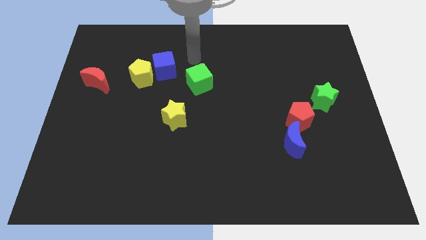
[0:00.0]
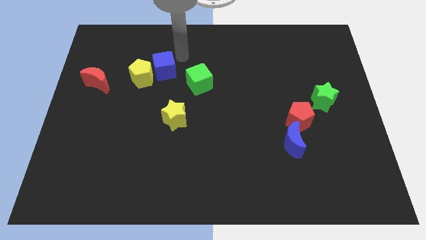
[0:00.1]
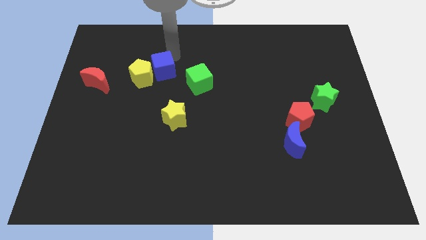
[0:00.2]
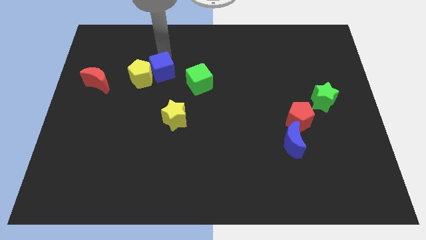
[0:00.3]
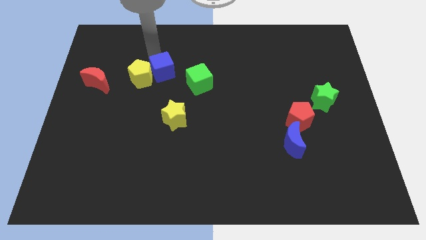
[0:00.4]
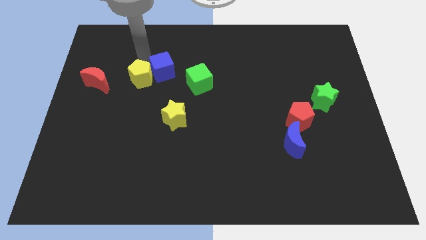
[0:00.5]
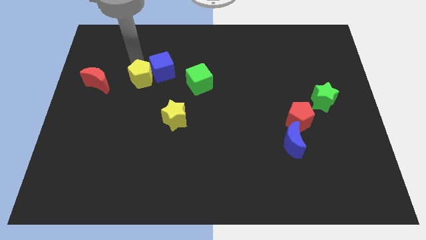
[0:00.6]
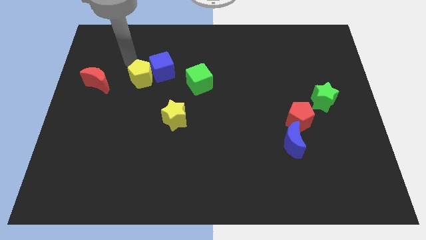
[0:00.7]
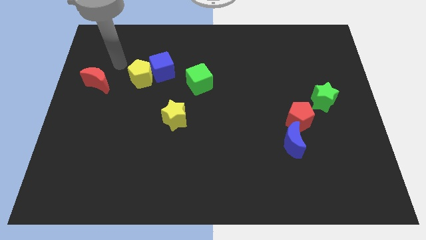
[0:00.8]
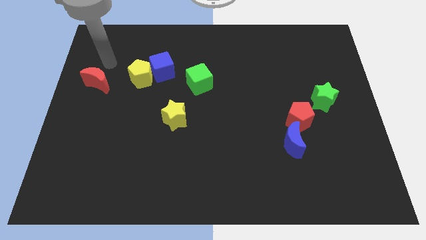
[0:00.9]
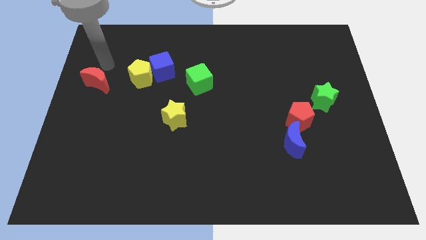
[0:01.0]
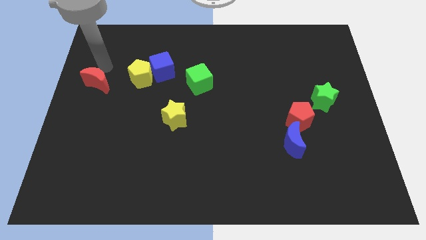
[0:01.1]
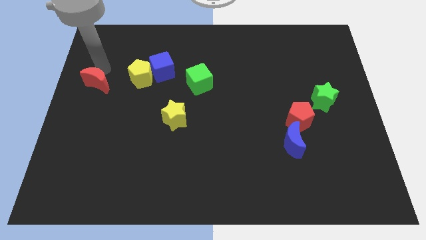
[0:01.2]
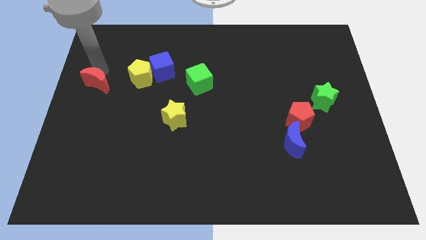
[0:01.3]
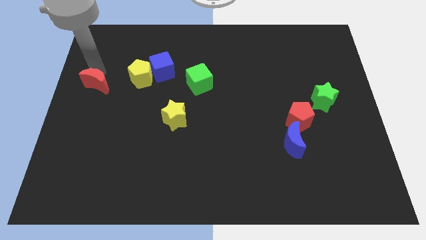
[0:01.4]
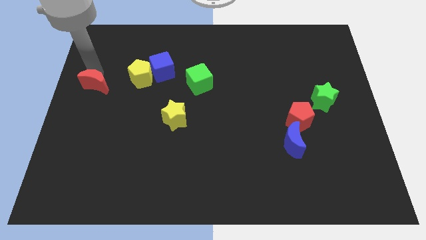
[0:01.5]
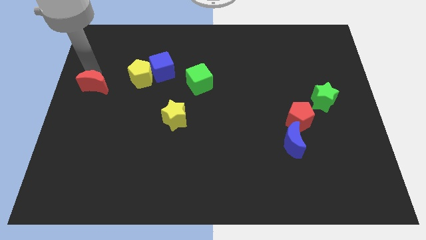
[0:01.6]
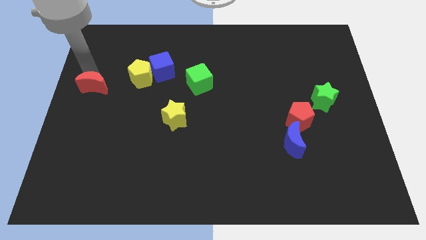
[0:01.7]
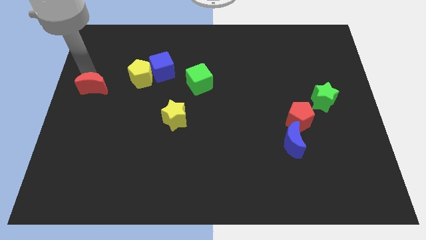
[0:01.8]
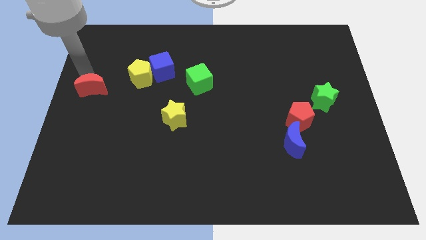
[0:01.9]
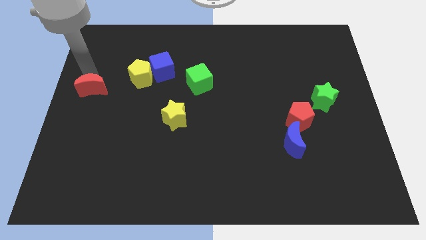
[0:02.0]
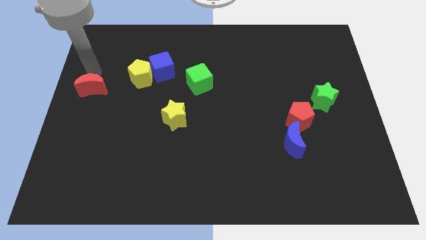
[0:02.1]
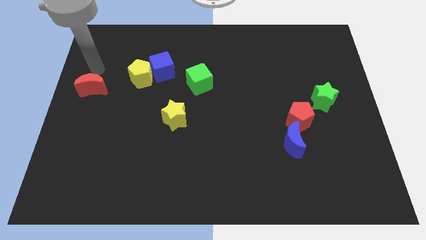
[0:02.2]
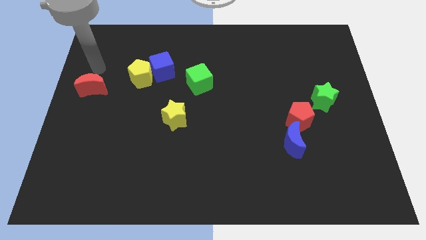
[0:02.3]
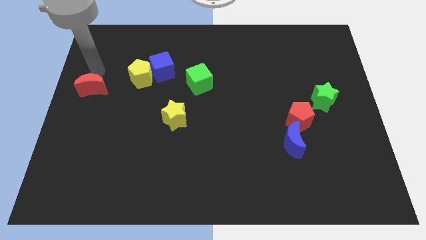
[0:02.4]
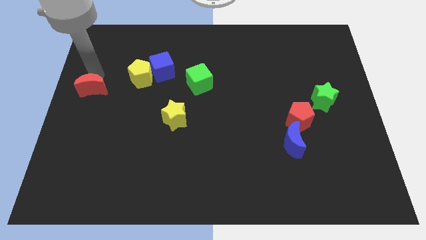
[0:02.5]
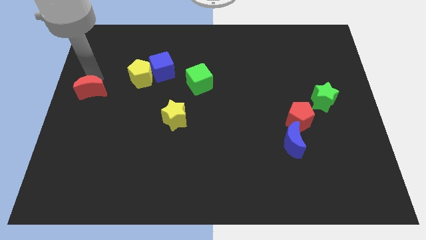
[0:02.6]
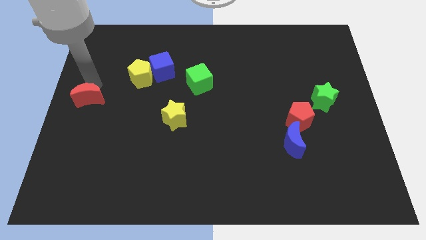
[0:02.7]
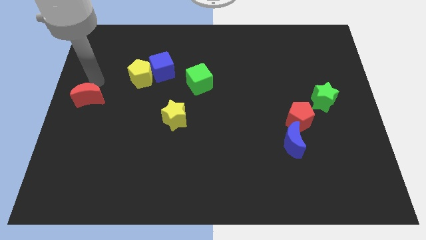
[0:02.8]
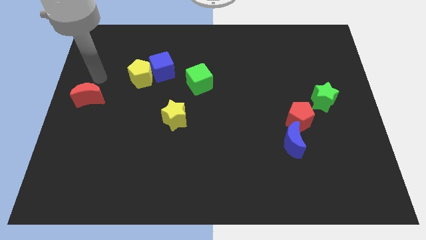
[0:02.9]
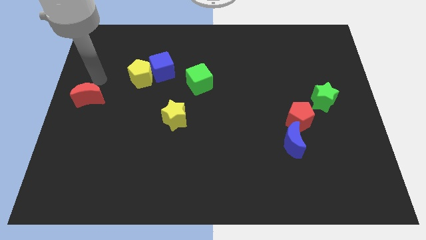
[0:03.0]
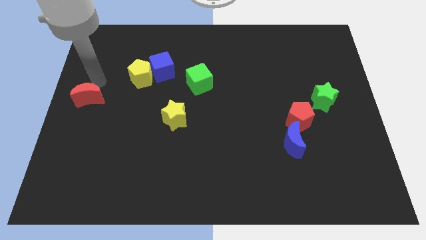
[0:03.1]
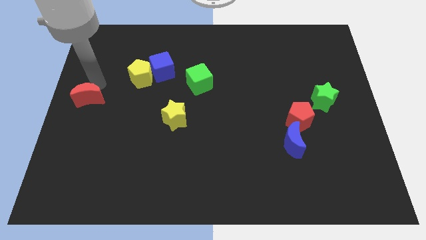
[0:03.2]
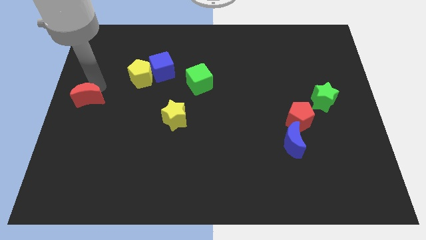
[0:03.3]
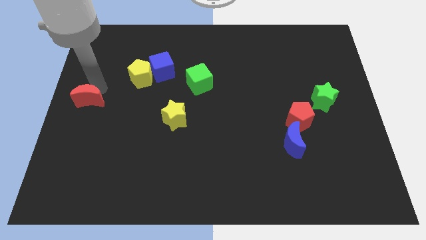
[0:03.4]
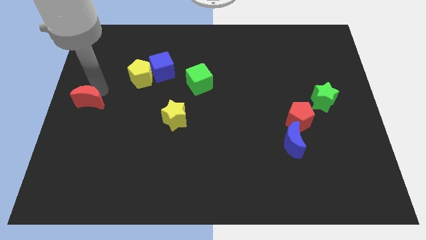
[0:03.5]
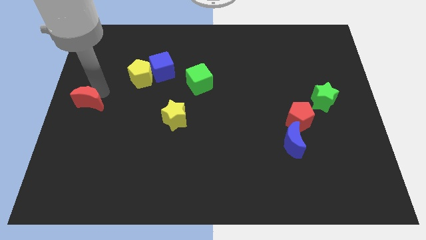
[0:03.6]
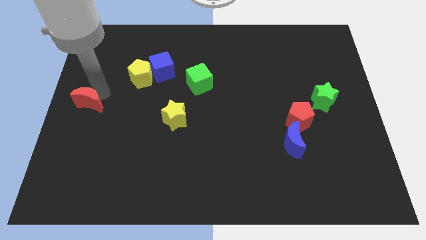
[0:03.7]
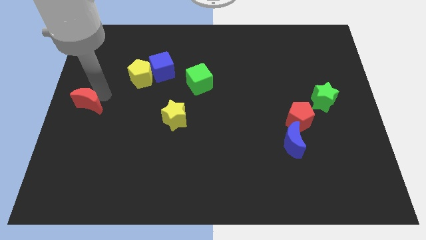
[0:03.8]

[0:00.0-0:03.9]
slightly move the red moon downwards

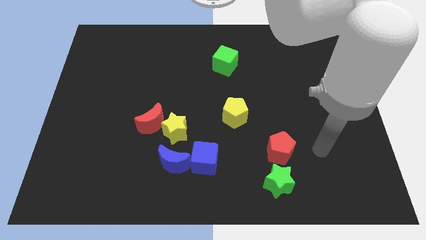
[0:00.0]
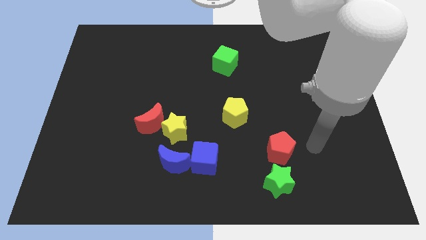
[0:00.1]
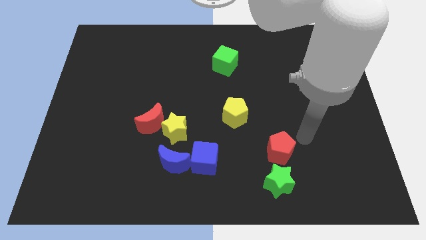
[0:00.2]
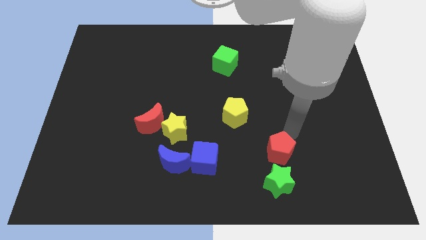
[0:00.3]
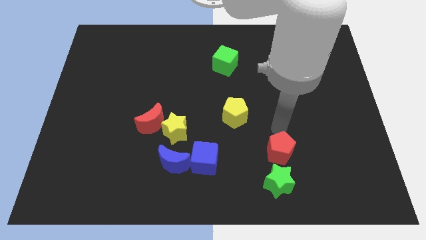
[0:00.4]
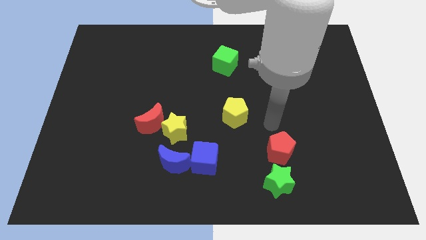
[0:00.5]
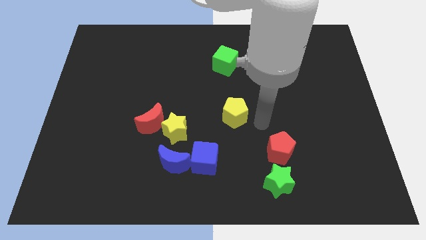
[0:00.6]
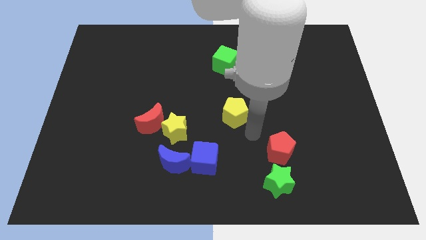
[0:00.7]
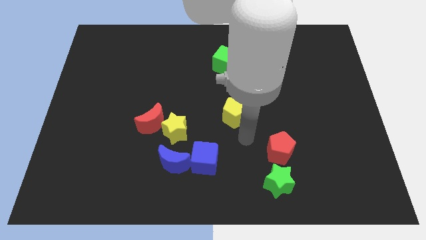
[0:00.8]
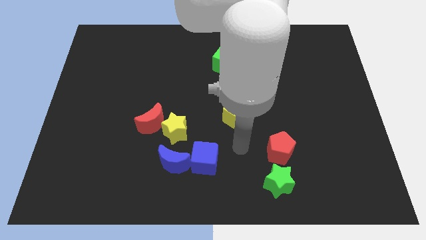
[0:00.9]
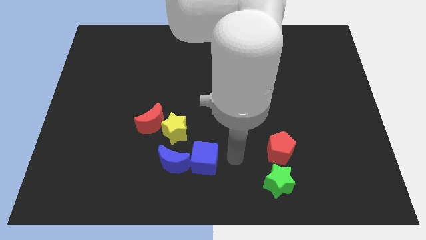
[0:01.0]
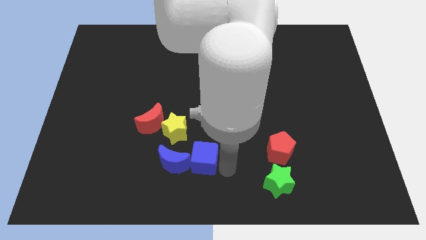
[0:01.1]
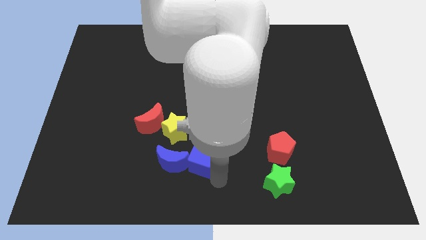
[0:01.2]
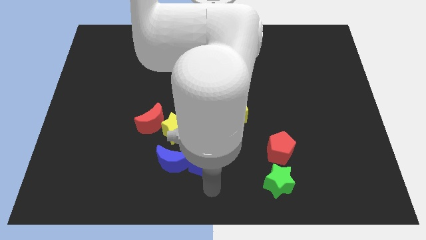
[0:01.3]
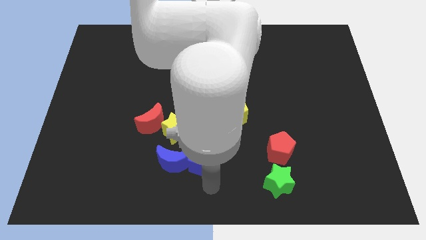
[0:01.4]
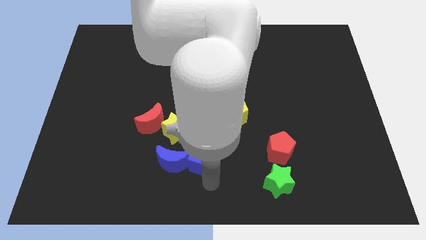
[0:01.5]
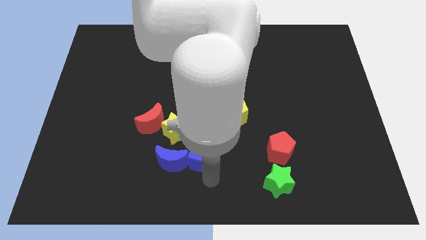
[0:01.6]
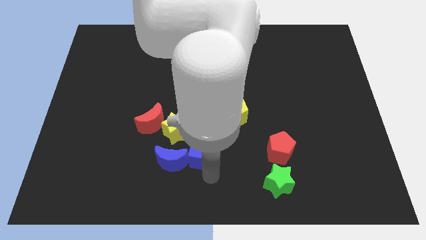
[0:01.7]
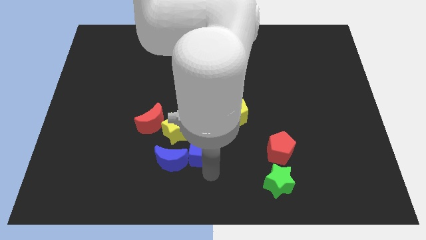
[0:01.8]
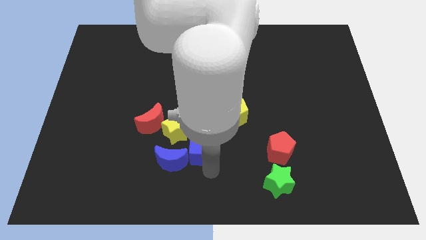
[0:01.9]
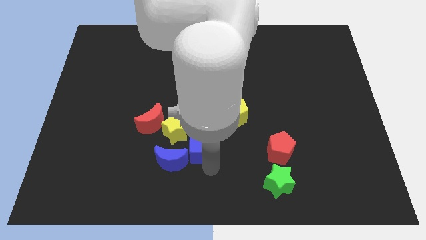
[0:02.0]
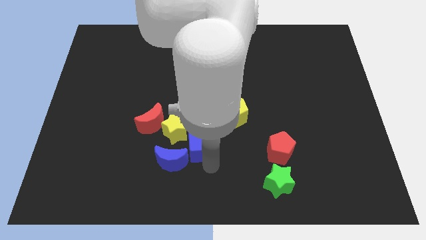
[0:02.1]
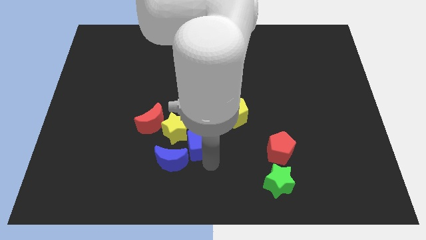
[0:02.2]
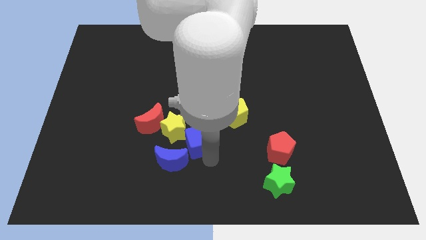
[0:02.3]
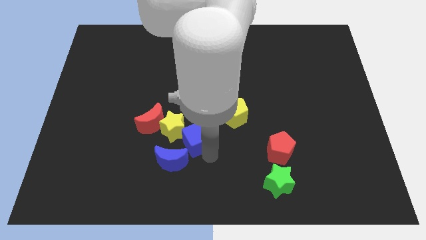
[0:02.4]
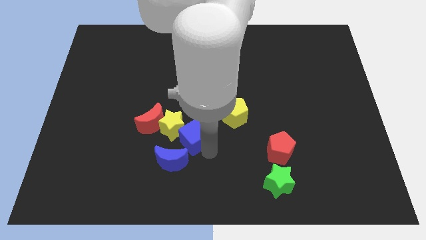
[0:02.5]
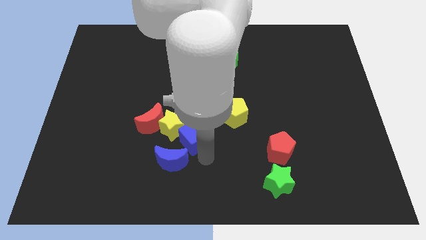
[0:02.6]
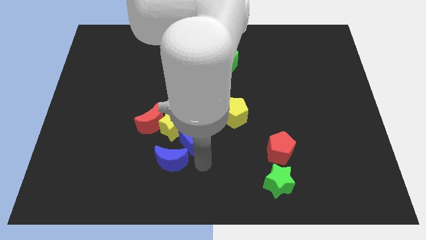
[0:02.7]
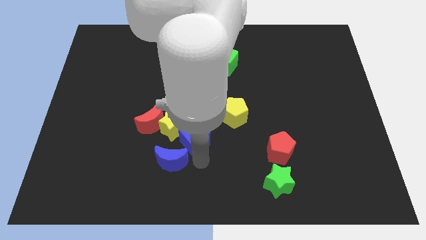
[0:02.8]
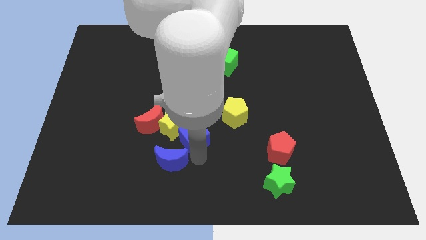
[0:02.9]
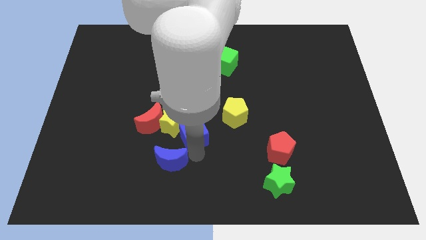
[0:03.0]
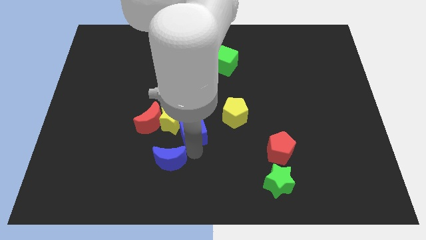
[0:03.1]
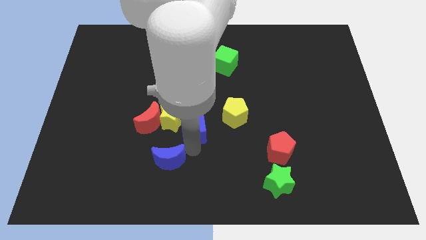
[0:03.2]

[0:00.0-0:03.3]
slightly slide the blue cube upwards and left diagonally

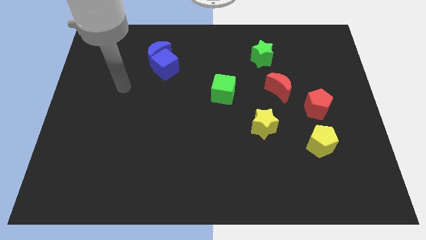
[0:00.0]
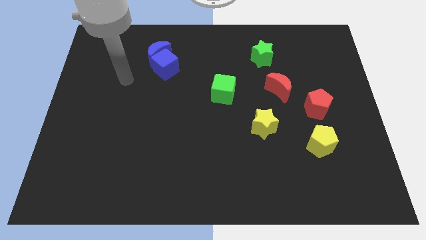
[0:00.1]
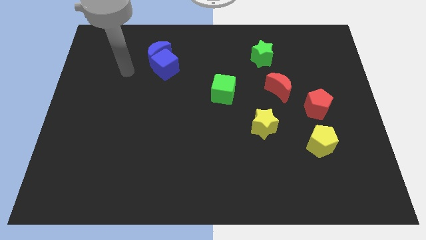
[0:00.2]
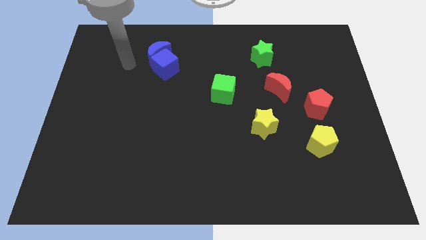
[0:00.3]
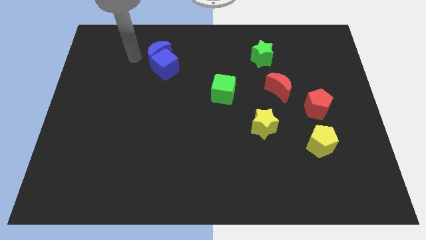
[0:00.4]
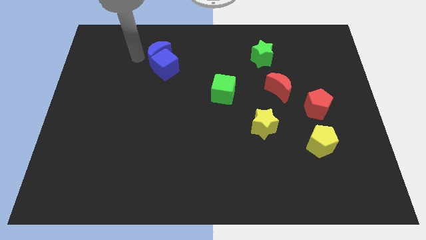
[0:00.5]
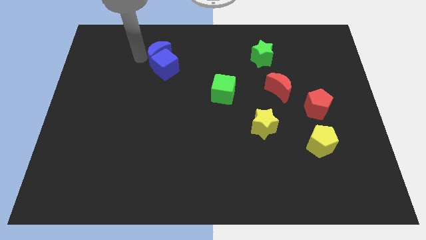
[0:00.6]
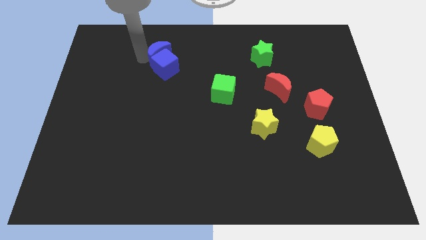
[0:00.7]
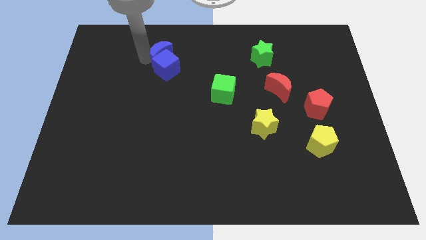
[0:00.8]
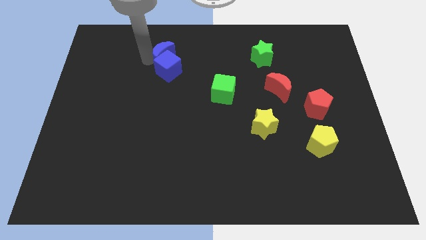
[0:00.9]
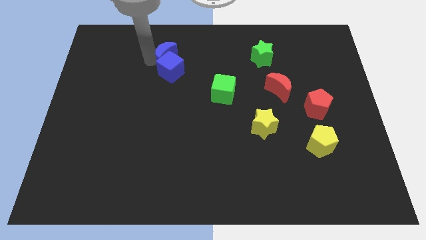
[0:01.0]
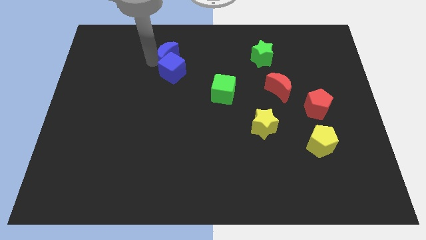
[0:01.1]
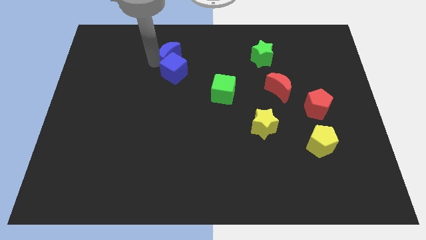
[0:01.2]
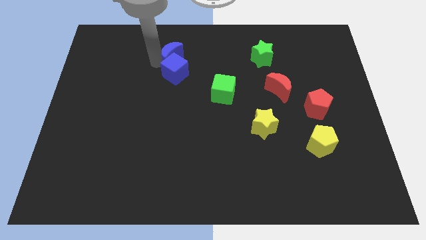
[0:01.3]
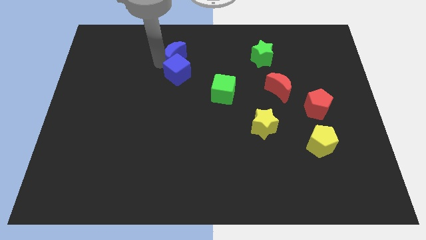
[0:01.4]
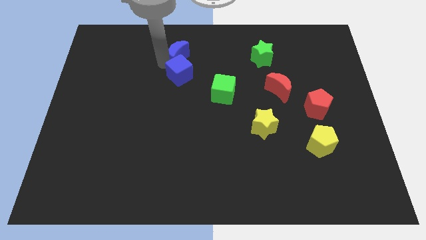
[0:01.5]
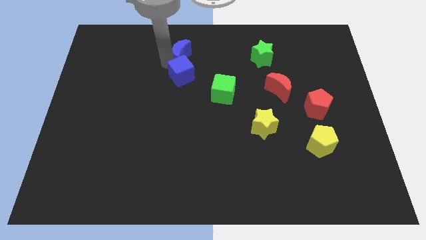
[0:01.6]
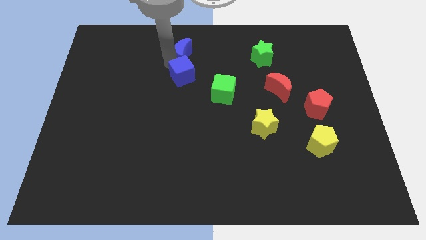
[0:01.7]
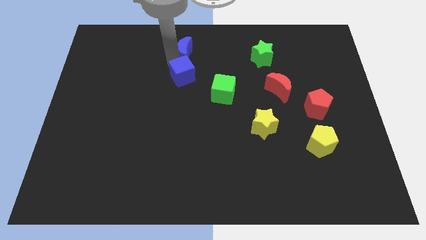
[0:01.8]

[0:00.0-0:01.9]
slightly move the blue moon to the right
